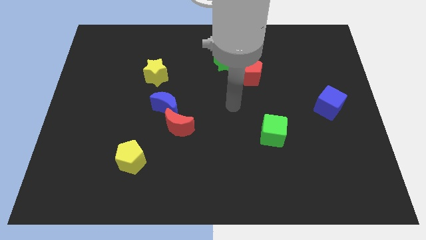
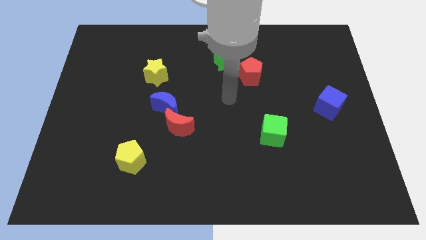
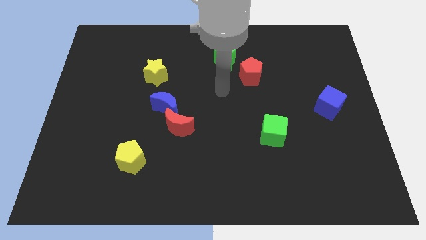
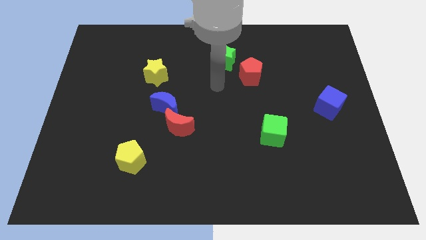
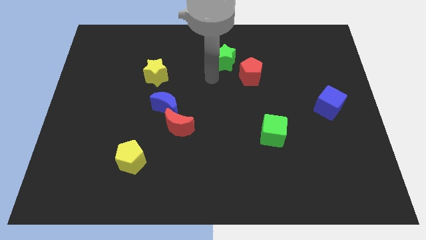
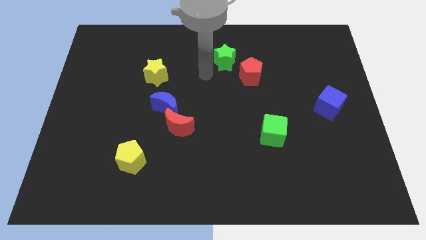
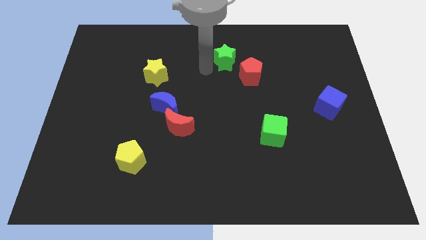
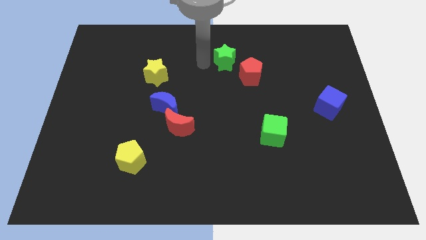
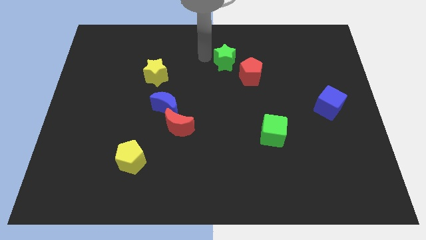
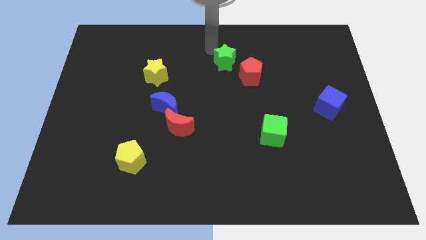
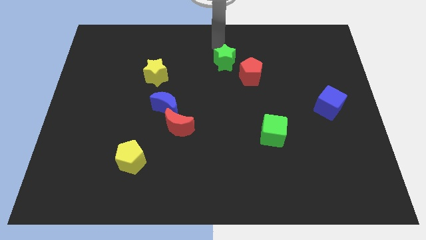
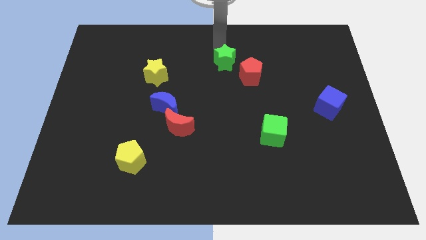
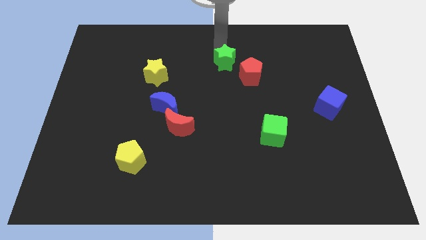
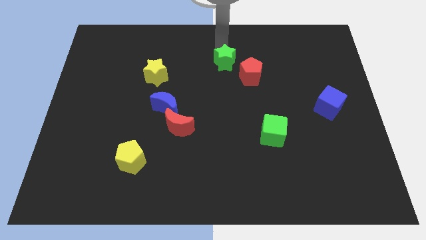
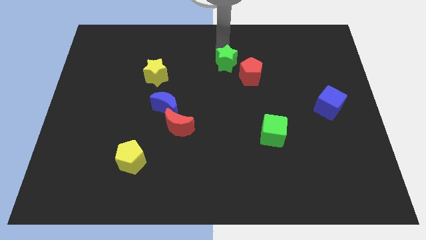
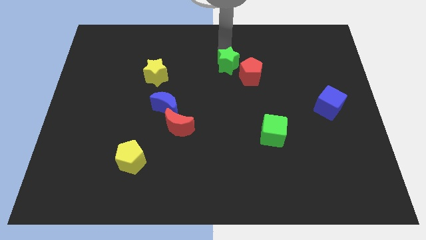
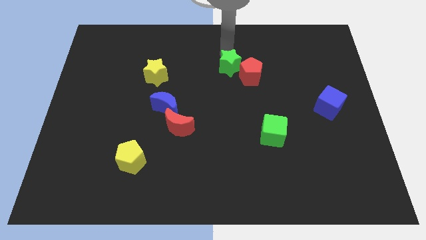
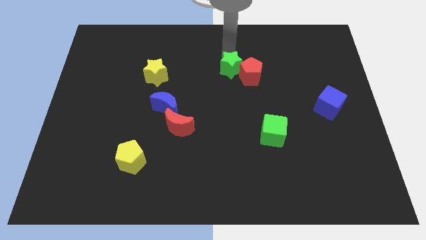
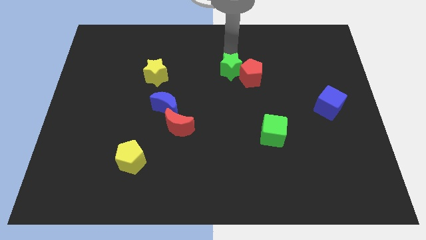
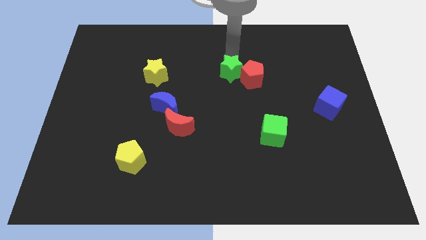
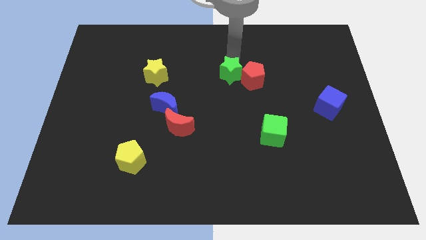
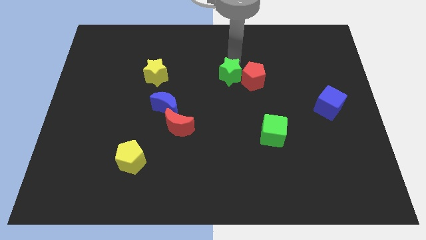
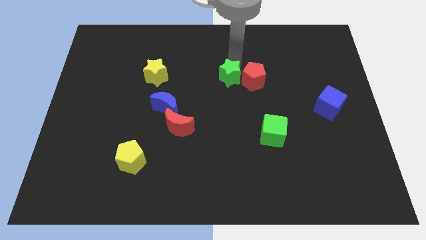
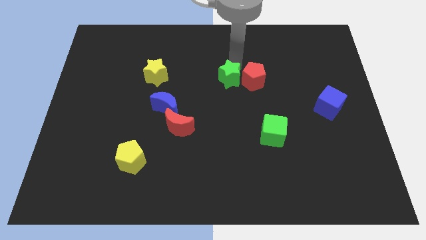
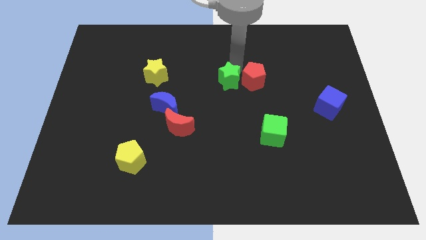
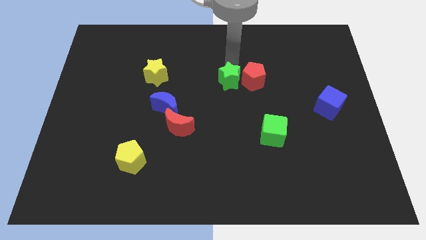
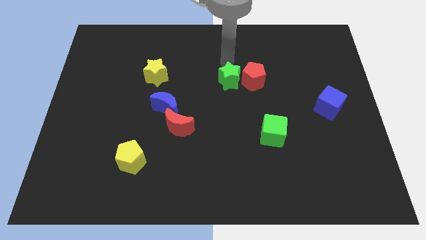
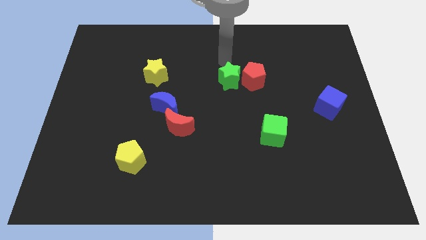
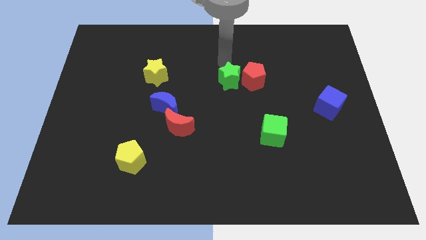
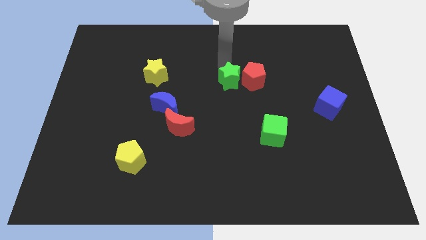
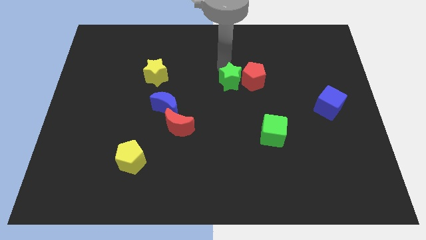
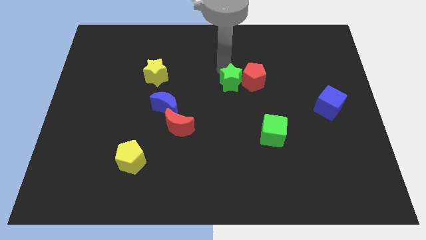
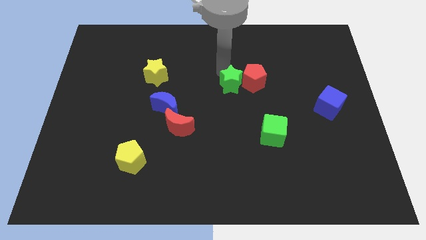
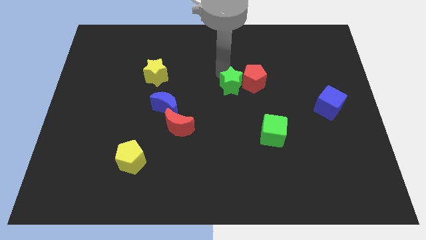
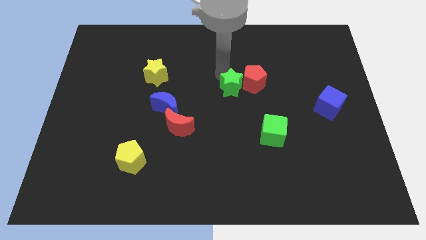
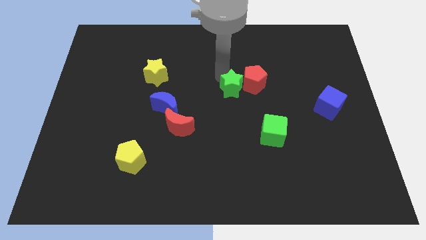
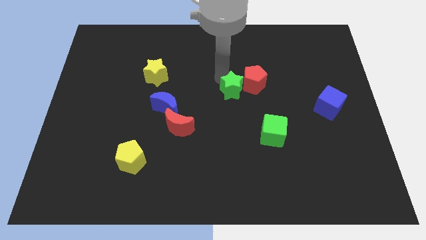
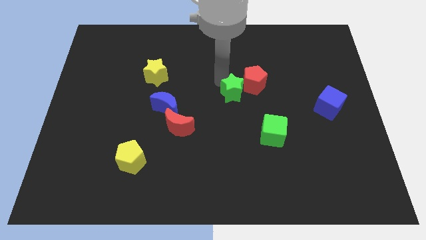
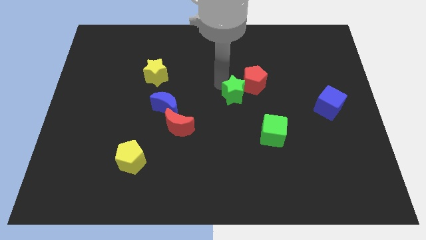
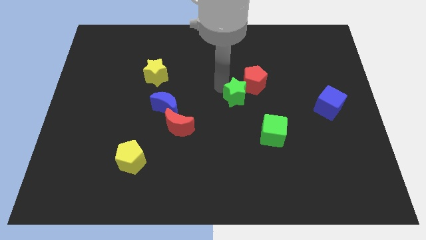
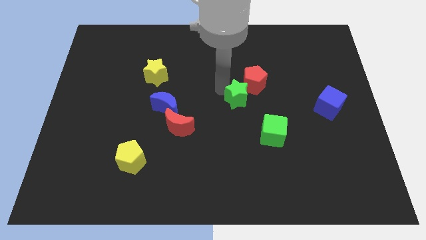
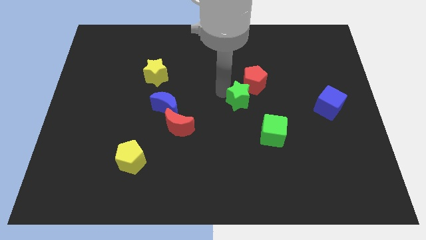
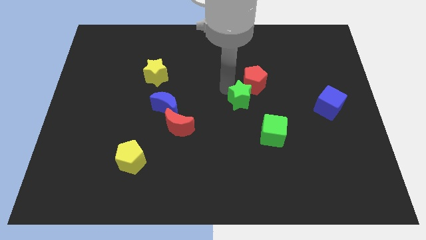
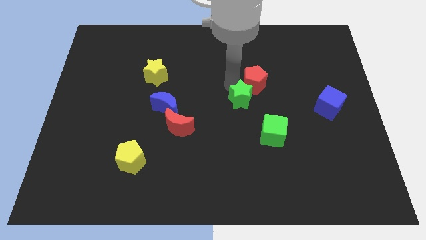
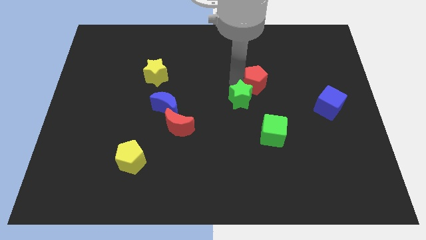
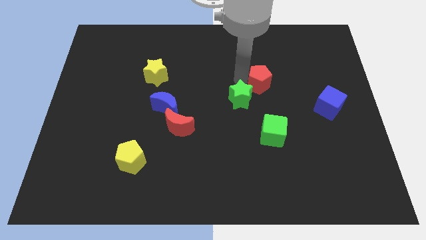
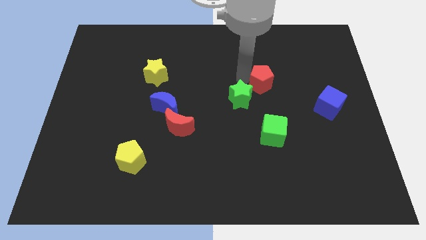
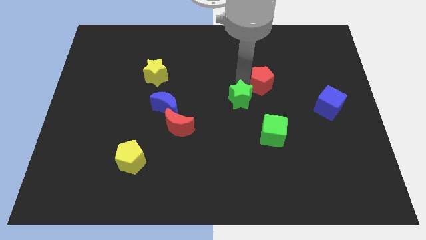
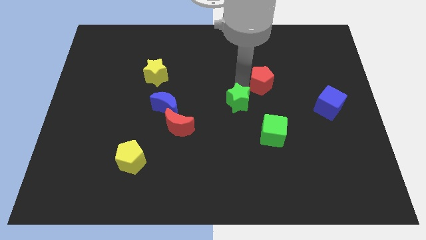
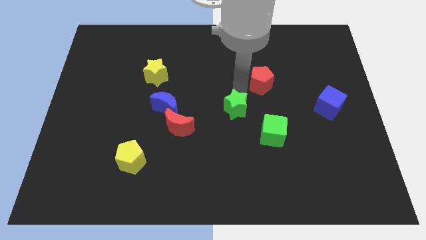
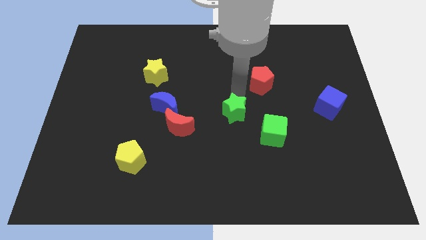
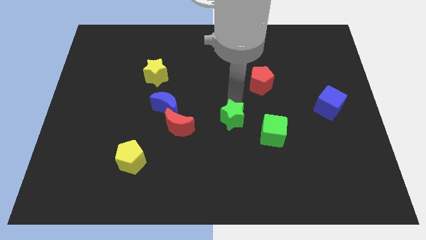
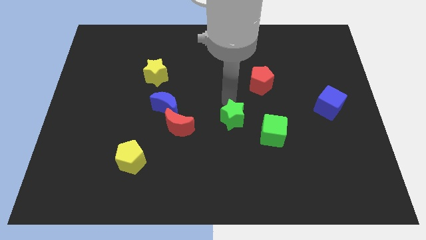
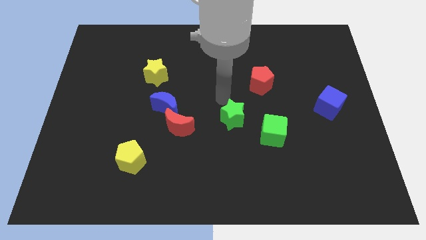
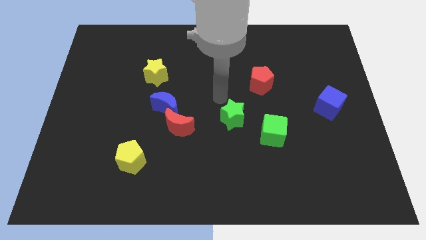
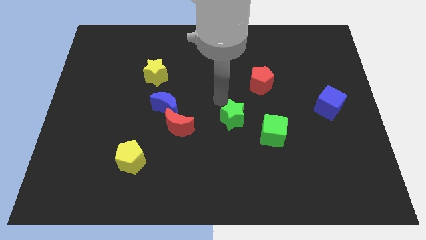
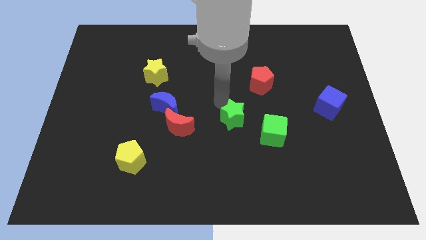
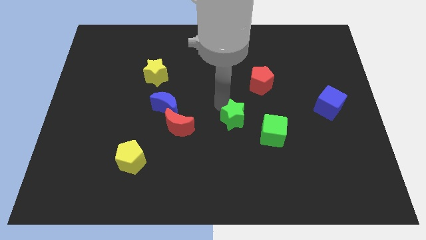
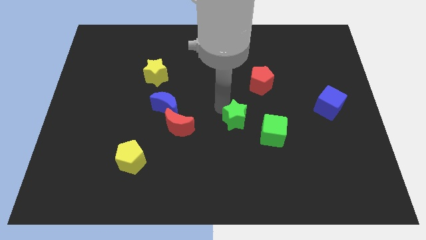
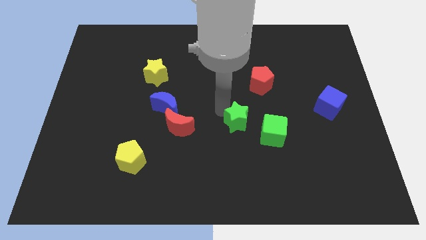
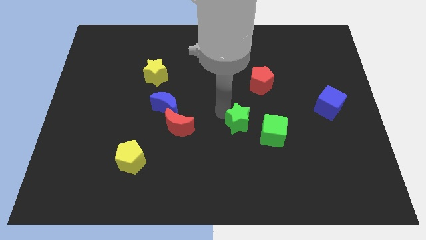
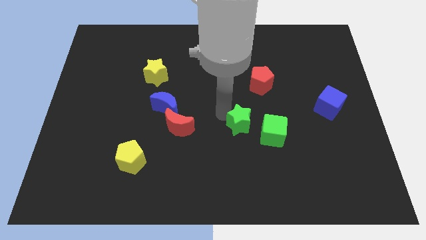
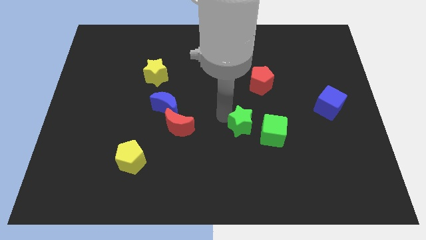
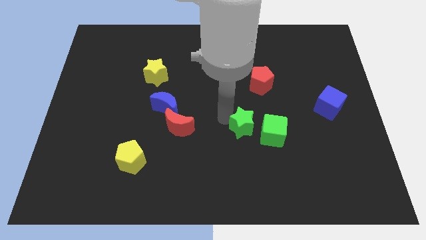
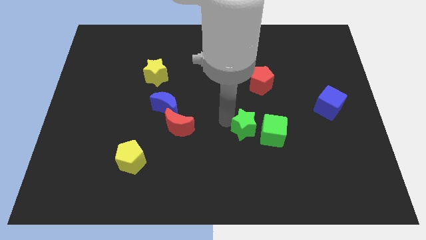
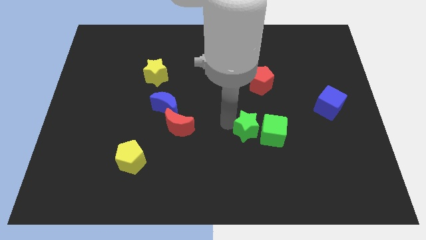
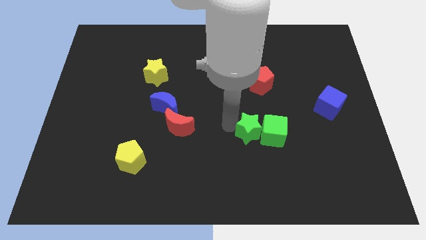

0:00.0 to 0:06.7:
move the green star diagonally down and to the left of the green cube

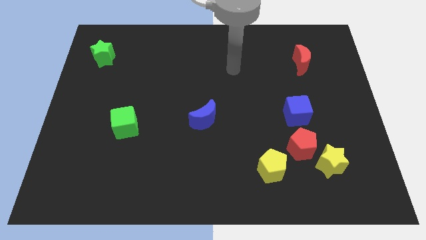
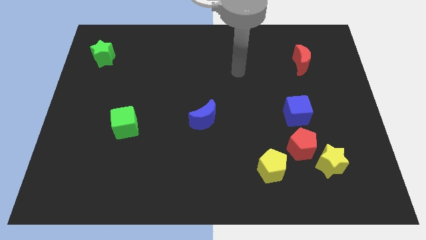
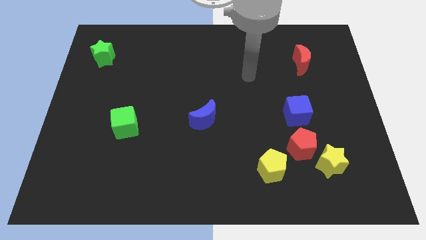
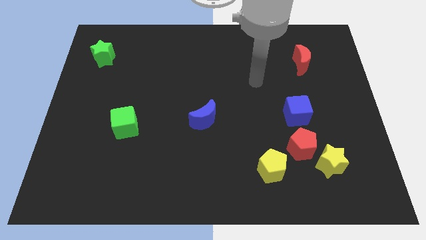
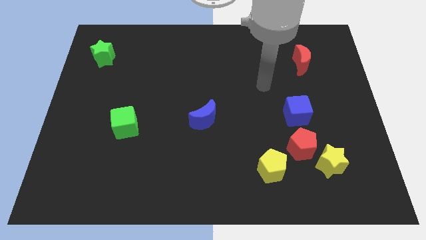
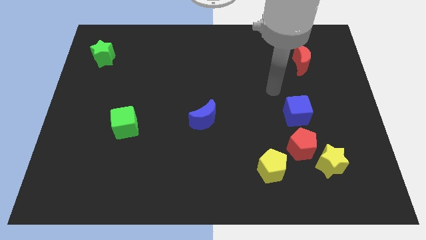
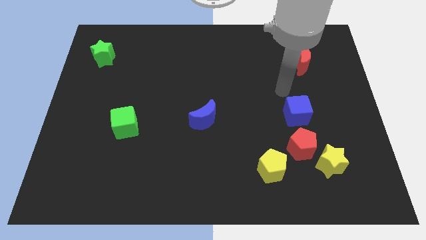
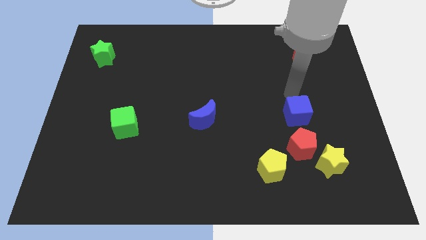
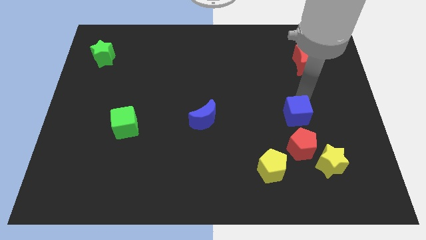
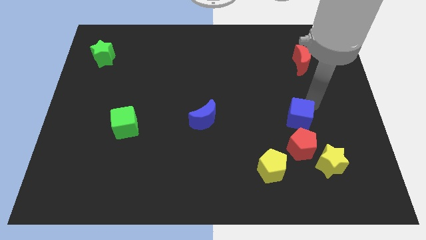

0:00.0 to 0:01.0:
put the yellow star to the bottom side of the blue cube
